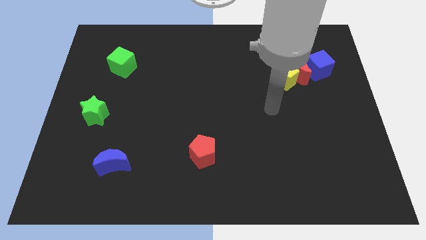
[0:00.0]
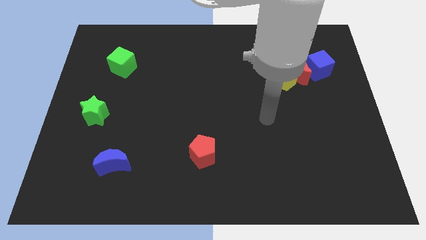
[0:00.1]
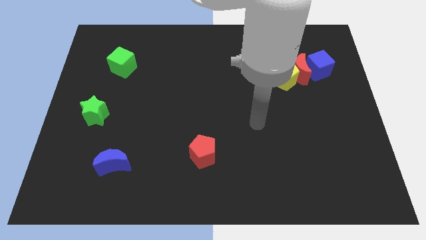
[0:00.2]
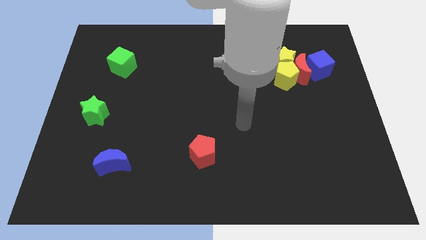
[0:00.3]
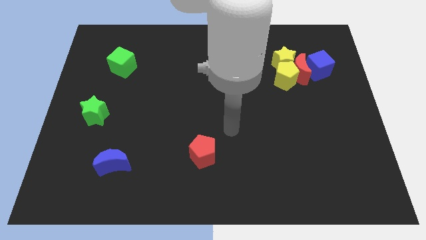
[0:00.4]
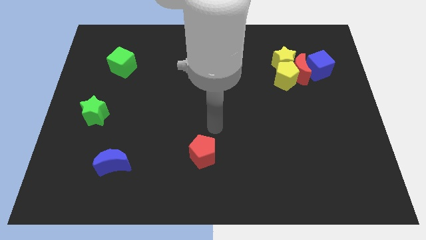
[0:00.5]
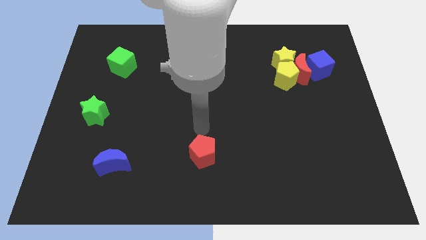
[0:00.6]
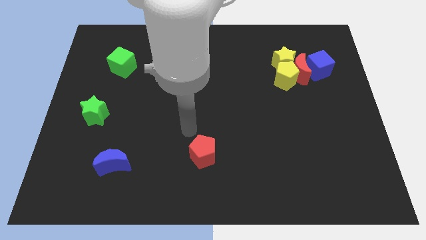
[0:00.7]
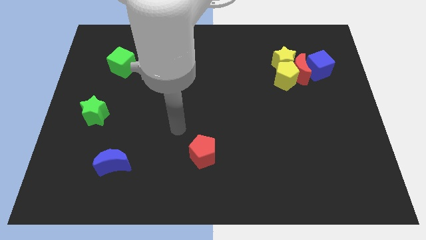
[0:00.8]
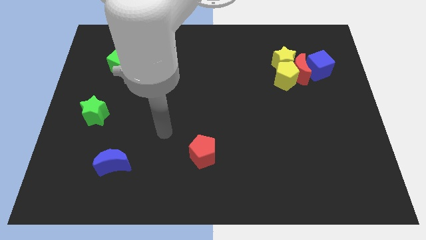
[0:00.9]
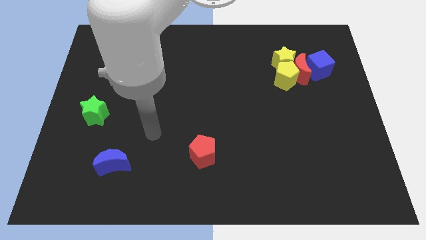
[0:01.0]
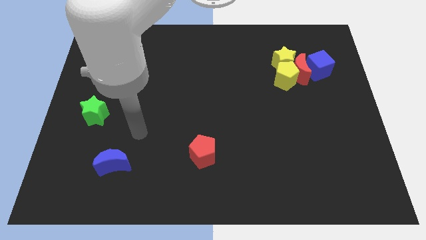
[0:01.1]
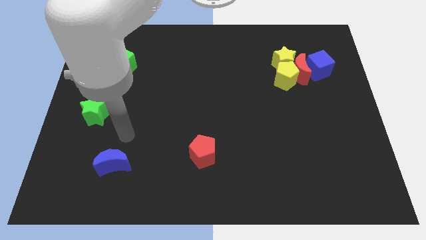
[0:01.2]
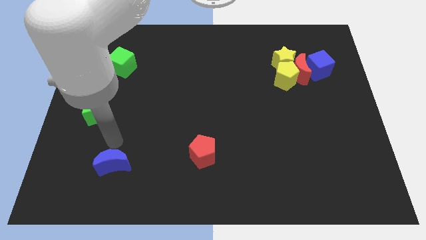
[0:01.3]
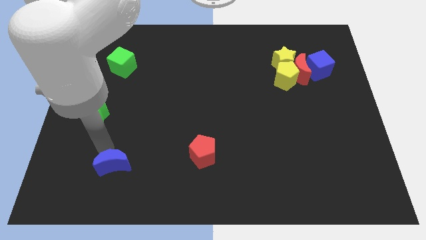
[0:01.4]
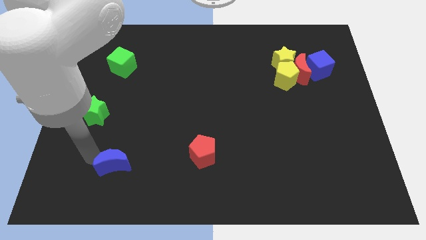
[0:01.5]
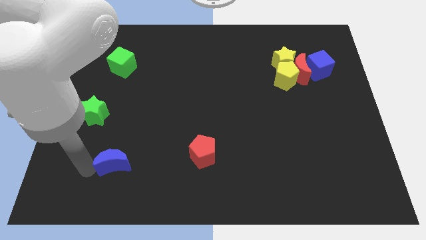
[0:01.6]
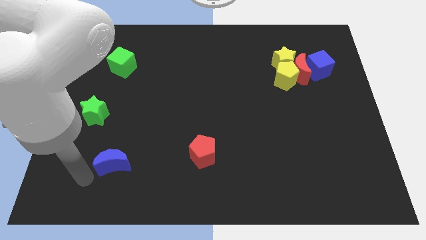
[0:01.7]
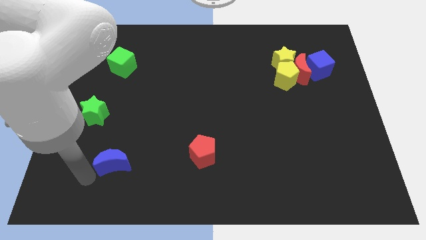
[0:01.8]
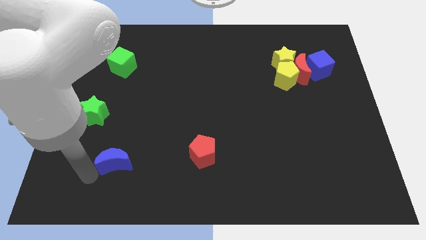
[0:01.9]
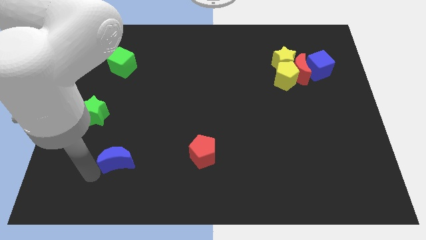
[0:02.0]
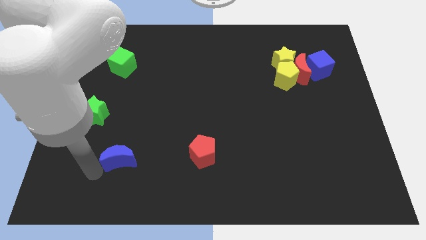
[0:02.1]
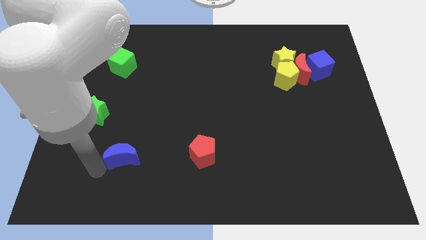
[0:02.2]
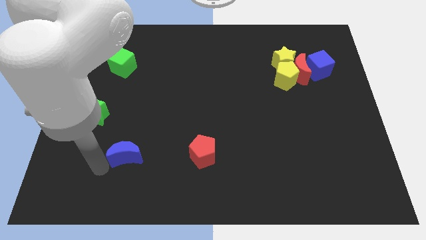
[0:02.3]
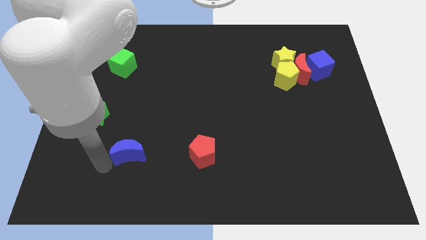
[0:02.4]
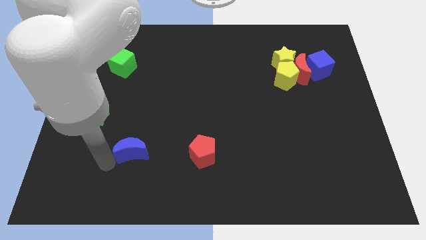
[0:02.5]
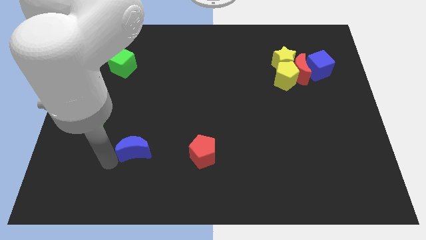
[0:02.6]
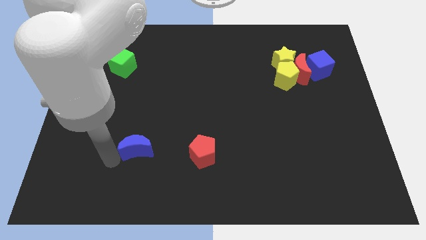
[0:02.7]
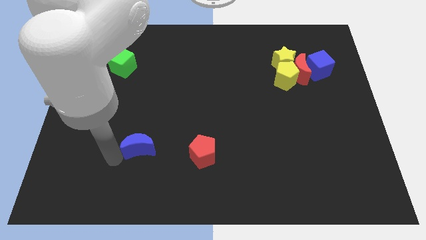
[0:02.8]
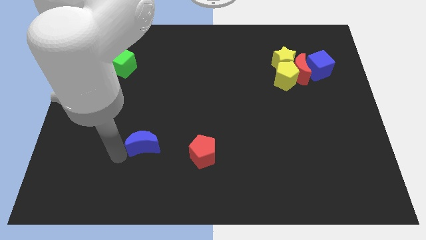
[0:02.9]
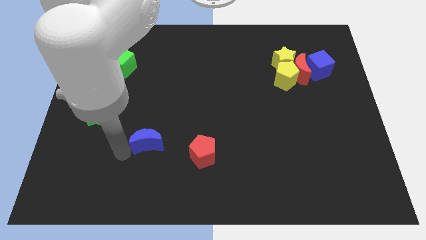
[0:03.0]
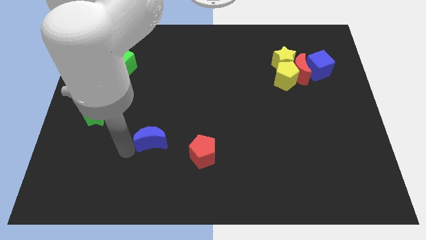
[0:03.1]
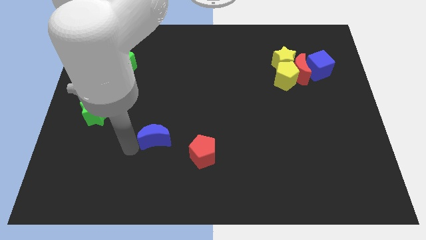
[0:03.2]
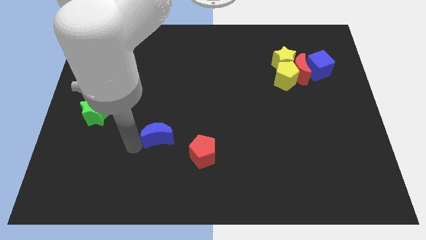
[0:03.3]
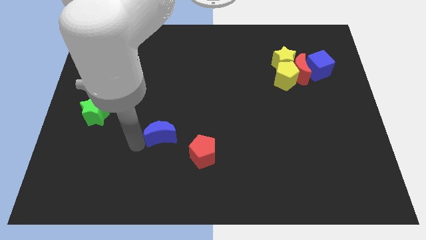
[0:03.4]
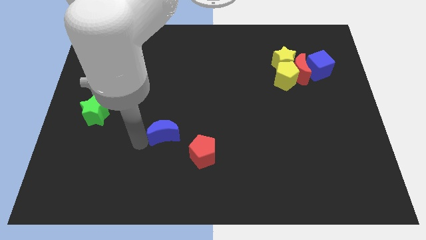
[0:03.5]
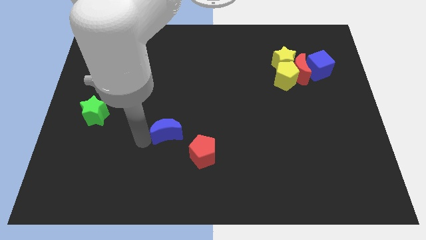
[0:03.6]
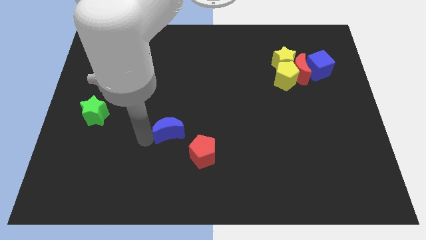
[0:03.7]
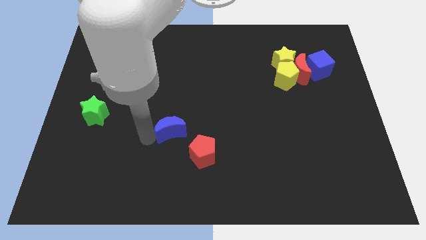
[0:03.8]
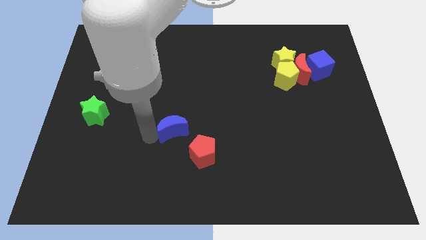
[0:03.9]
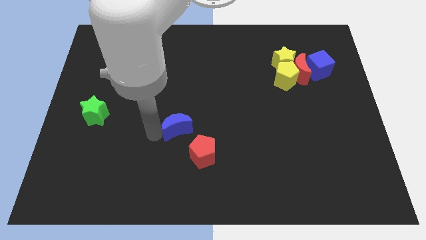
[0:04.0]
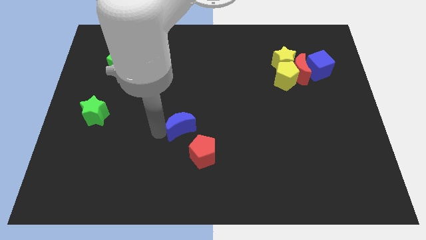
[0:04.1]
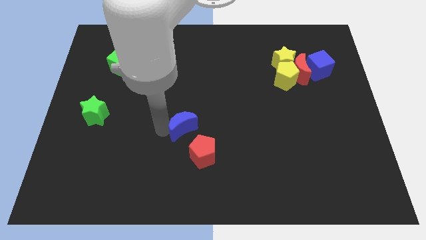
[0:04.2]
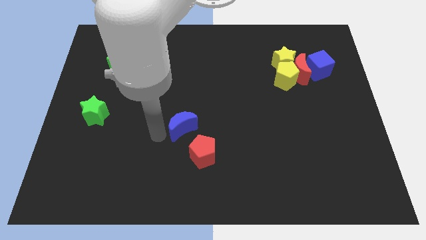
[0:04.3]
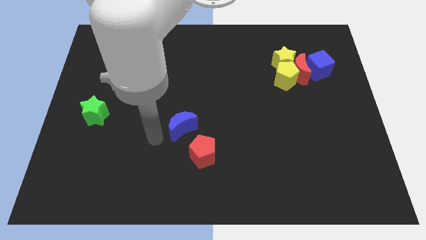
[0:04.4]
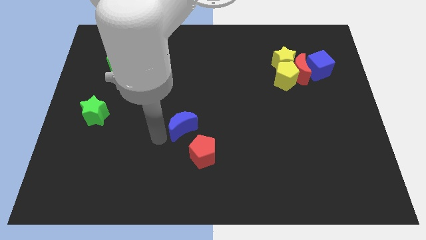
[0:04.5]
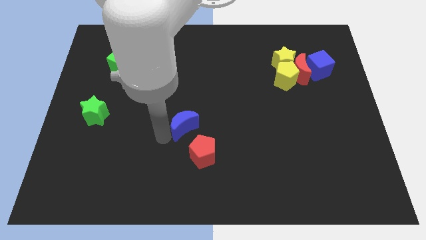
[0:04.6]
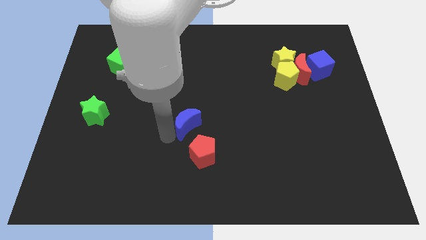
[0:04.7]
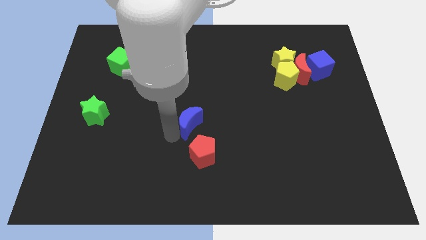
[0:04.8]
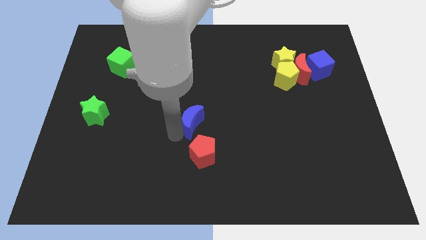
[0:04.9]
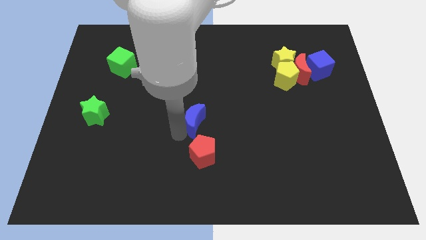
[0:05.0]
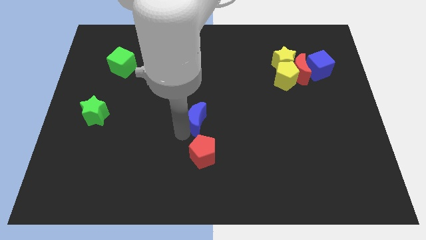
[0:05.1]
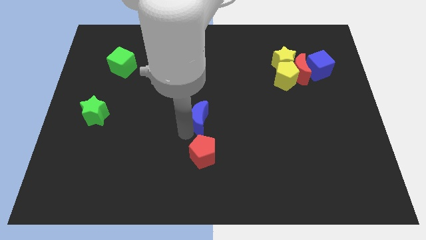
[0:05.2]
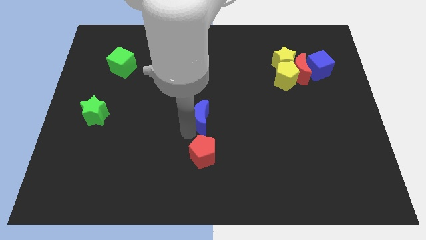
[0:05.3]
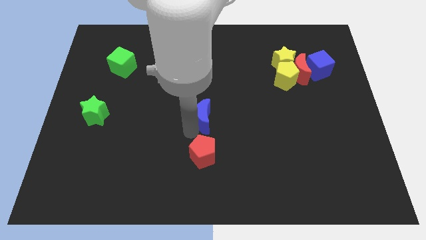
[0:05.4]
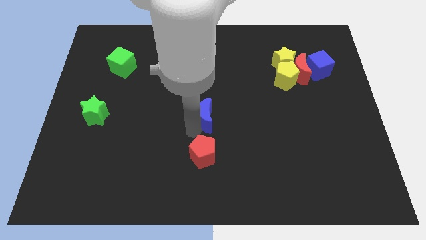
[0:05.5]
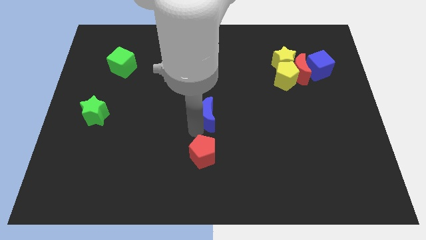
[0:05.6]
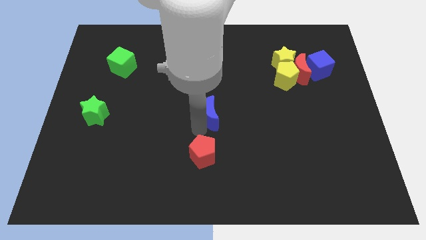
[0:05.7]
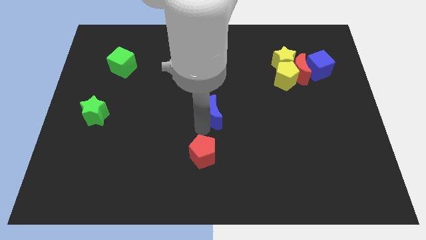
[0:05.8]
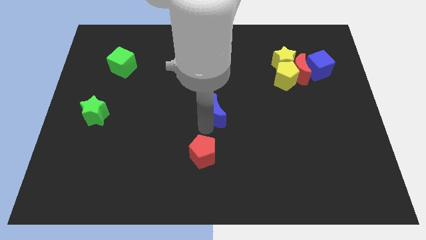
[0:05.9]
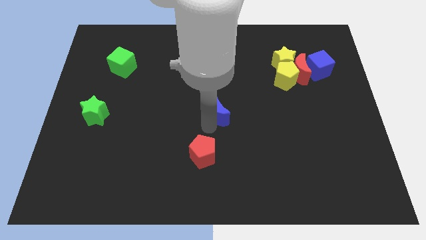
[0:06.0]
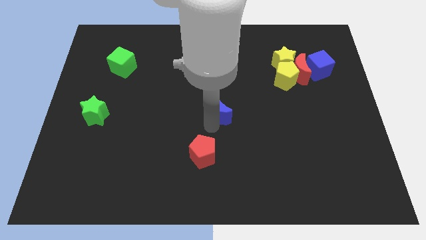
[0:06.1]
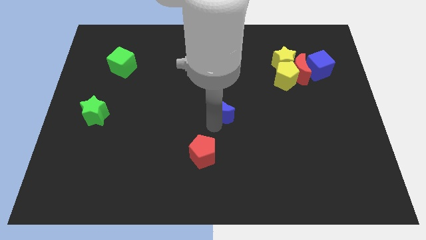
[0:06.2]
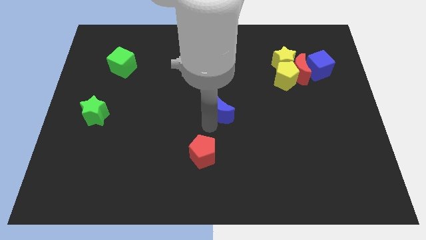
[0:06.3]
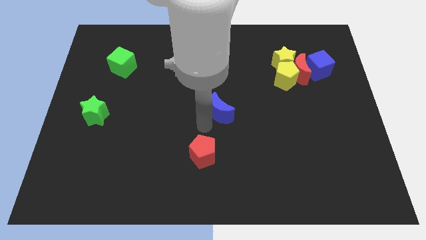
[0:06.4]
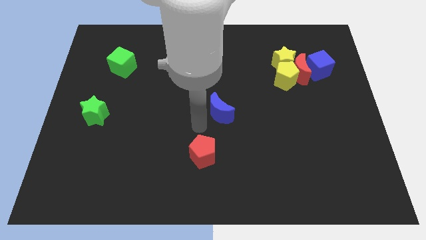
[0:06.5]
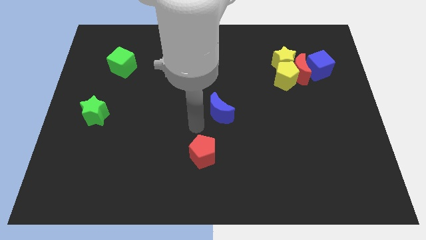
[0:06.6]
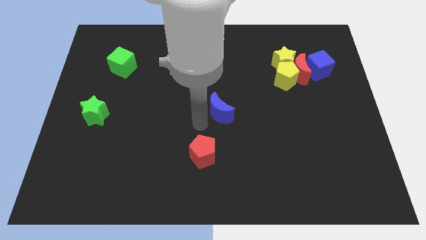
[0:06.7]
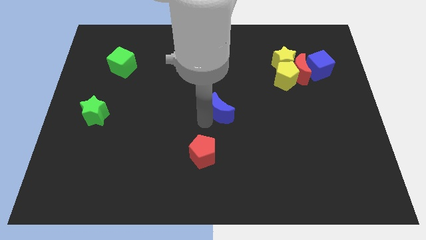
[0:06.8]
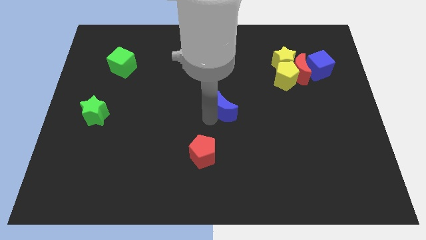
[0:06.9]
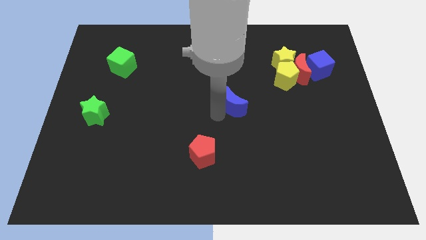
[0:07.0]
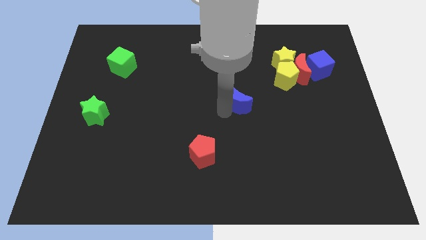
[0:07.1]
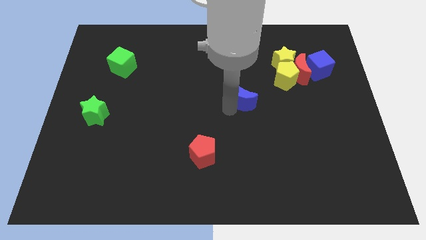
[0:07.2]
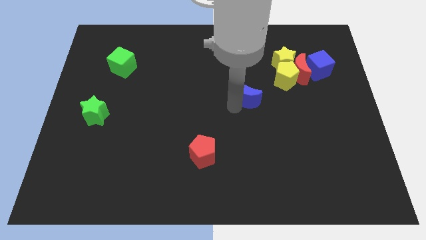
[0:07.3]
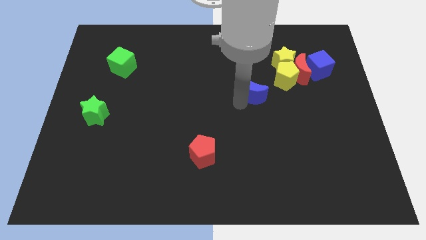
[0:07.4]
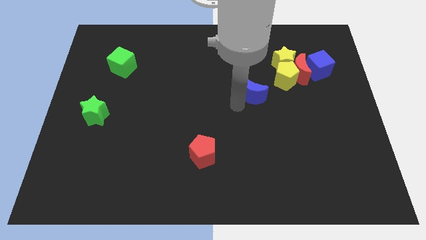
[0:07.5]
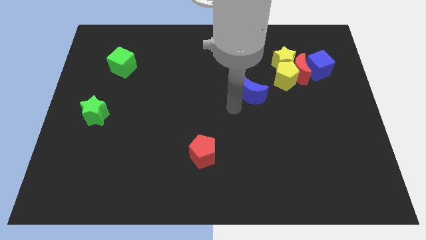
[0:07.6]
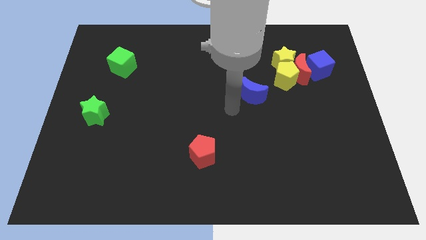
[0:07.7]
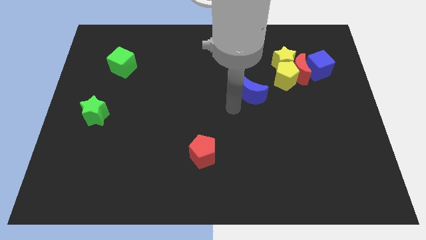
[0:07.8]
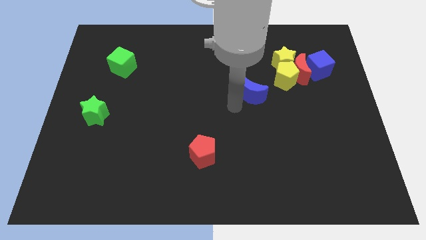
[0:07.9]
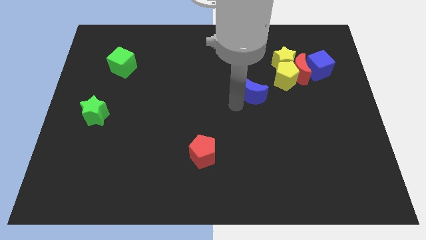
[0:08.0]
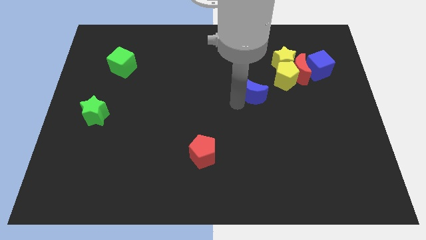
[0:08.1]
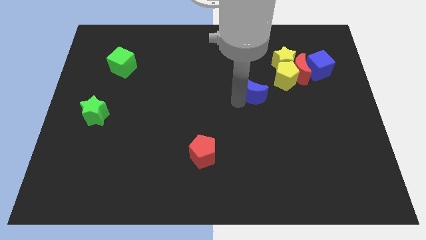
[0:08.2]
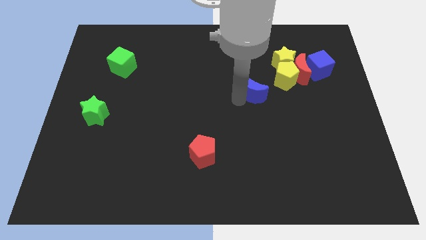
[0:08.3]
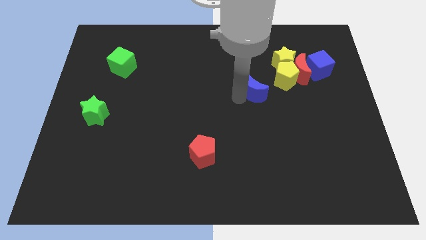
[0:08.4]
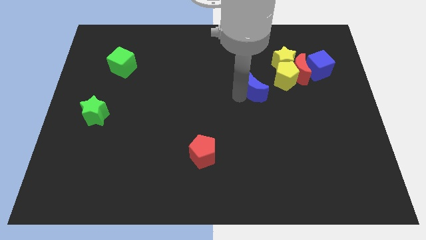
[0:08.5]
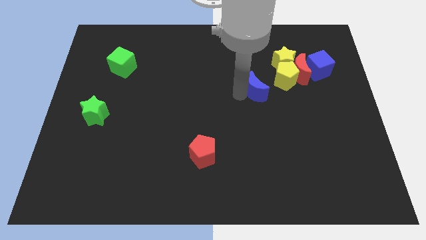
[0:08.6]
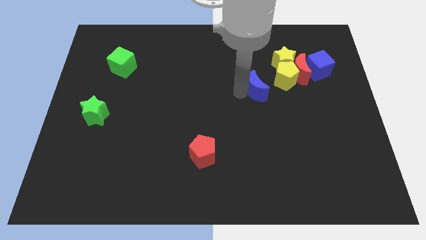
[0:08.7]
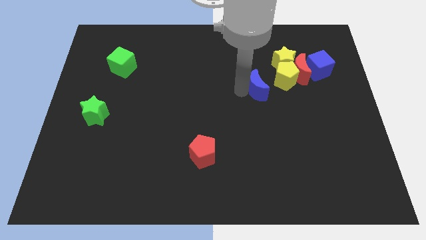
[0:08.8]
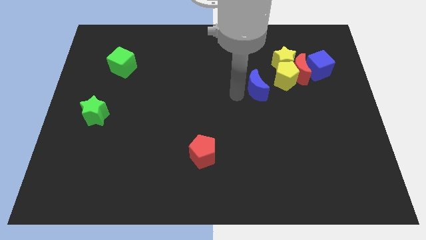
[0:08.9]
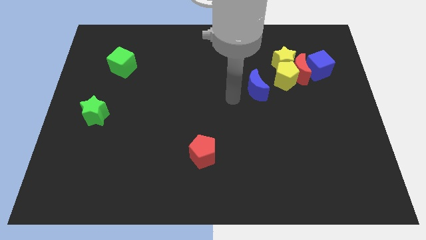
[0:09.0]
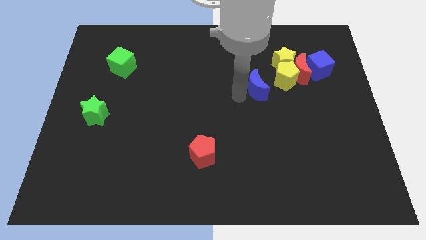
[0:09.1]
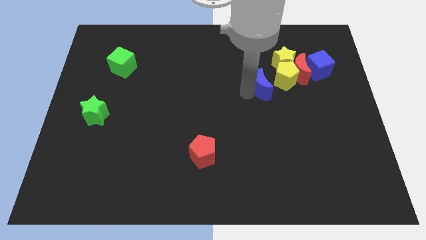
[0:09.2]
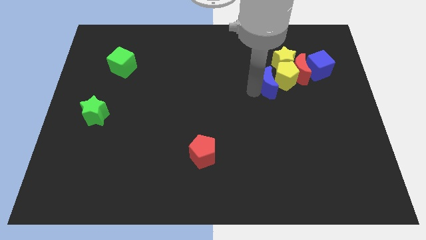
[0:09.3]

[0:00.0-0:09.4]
slide the blue moon next to the yellow pentagon
